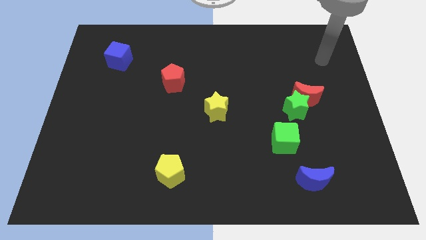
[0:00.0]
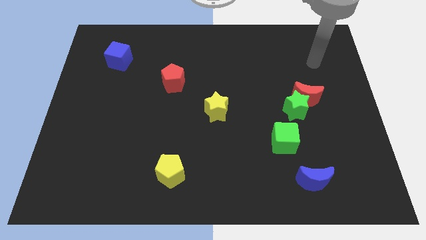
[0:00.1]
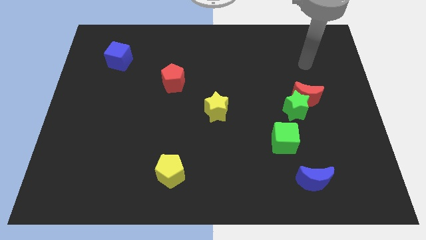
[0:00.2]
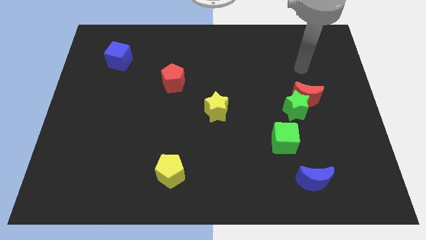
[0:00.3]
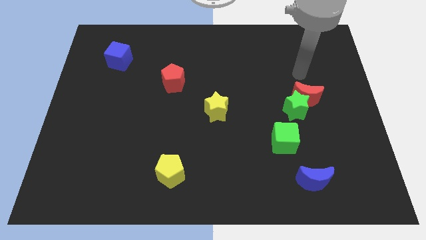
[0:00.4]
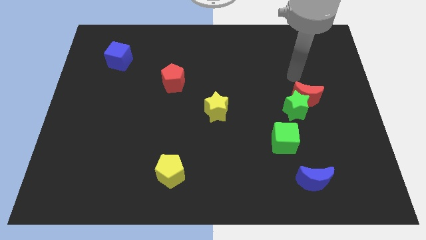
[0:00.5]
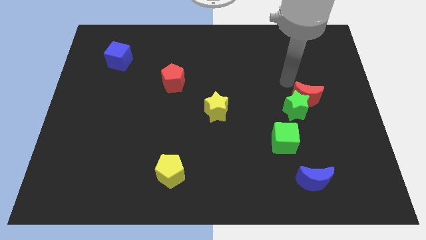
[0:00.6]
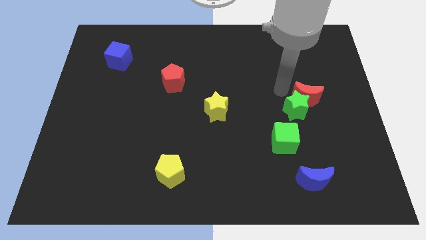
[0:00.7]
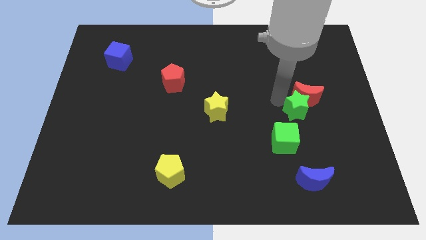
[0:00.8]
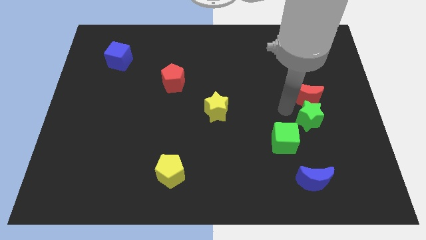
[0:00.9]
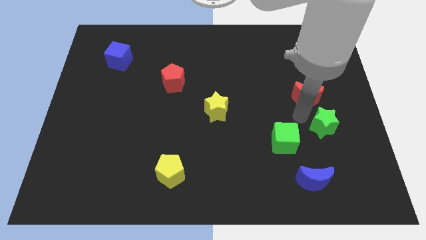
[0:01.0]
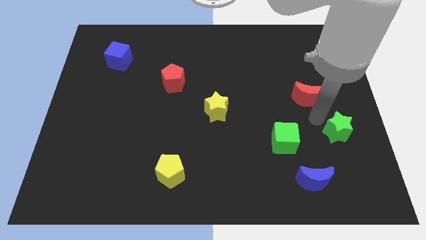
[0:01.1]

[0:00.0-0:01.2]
separate the red moon from the green star

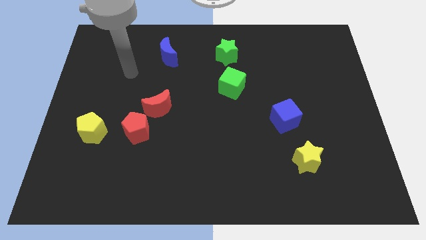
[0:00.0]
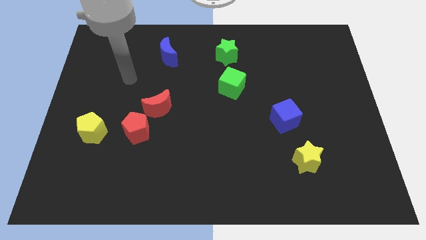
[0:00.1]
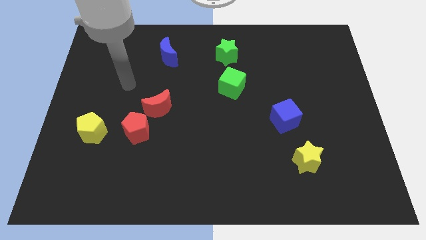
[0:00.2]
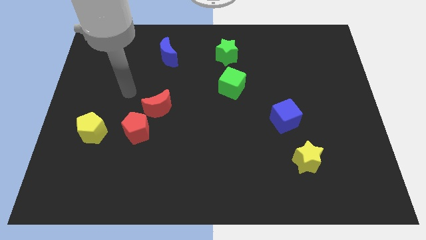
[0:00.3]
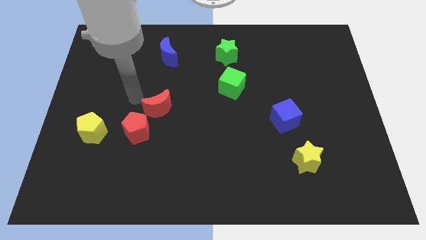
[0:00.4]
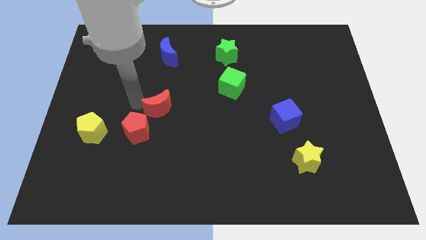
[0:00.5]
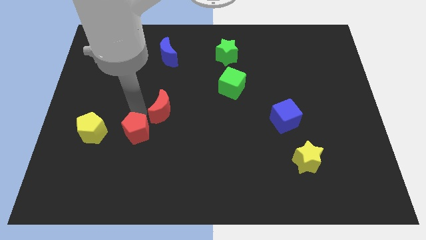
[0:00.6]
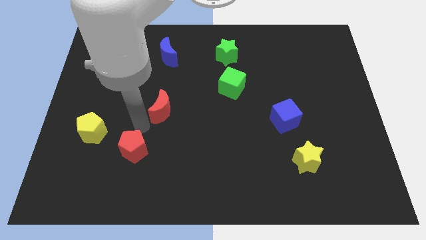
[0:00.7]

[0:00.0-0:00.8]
separate the red moon from the red pentagon

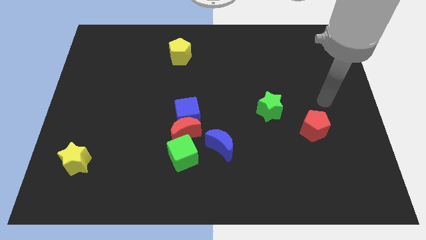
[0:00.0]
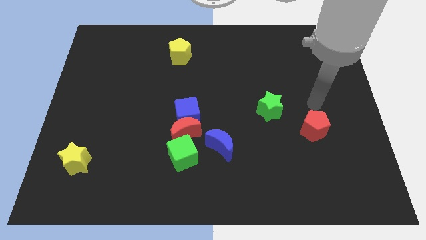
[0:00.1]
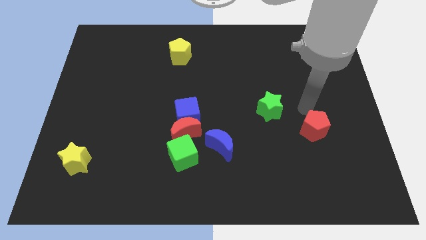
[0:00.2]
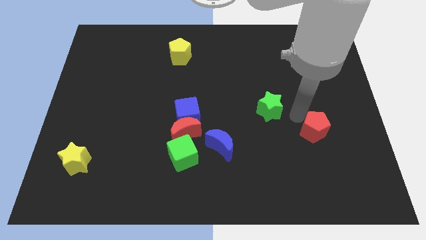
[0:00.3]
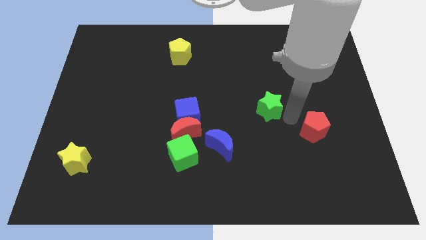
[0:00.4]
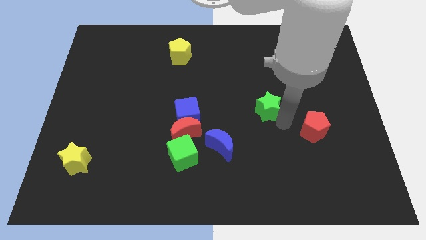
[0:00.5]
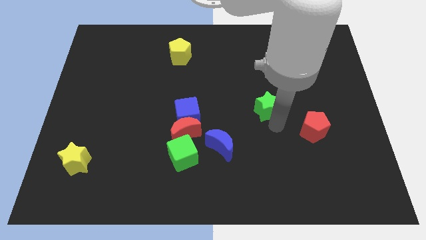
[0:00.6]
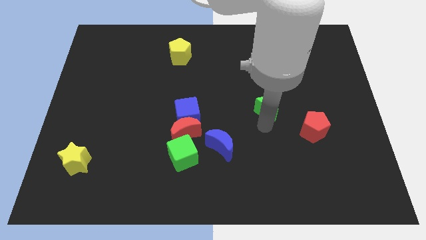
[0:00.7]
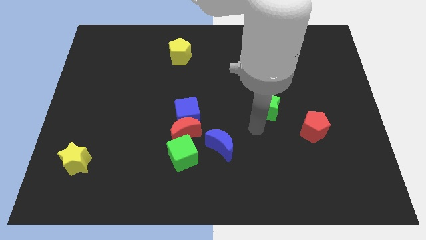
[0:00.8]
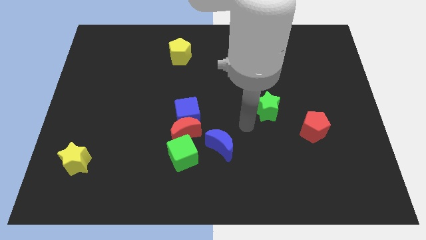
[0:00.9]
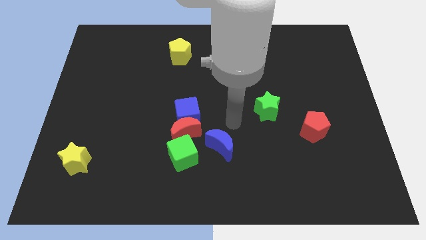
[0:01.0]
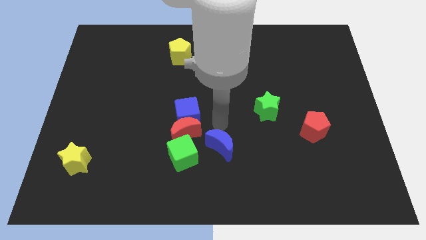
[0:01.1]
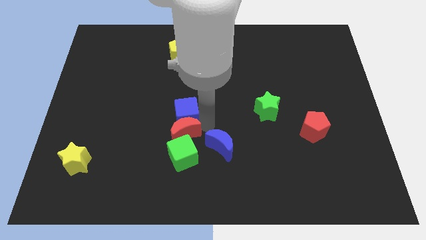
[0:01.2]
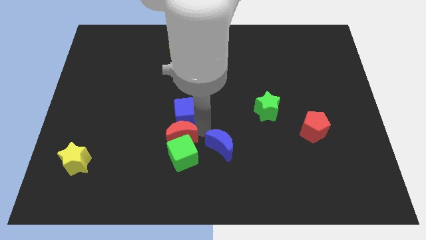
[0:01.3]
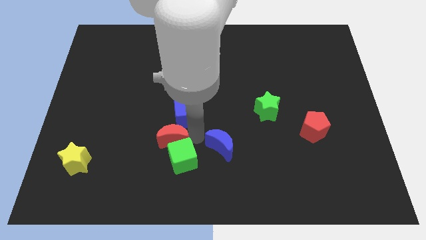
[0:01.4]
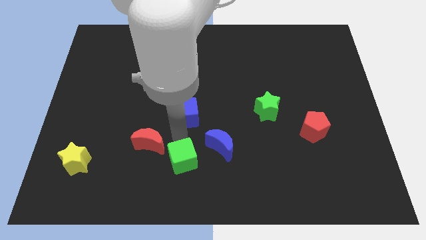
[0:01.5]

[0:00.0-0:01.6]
pull the blue cube apart from the red moon

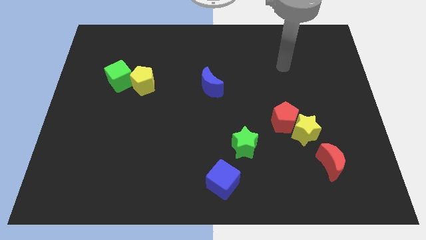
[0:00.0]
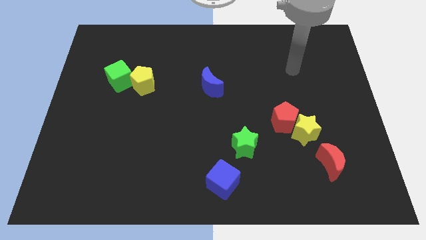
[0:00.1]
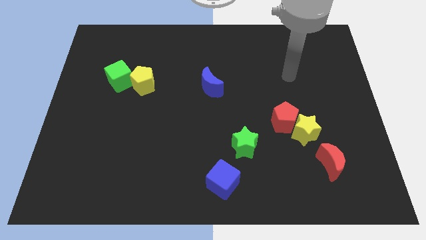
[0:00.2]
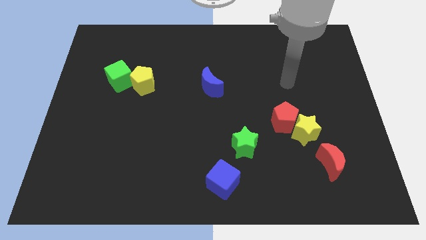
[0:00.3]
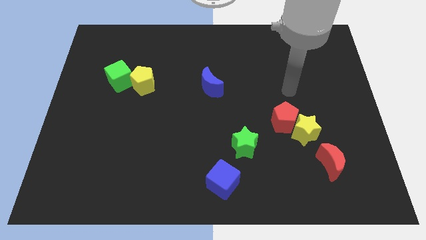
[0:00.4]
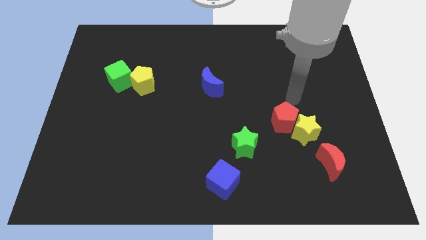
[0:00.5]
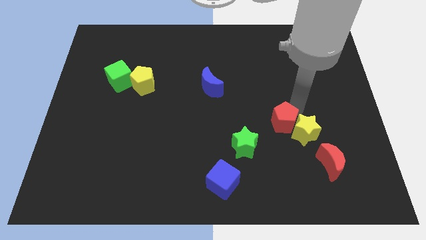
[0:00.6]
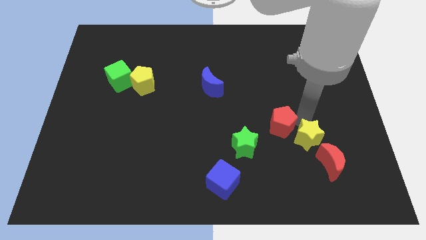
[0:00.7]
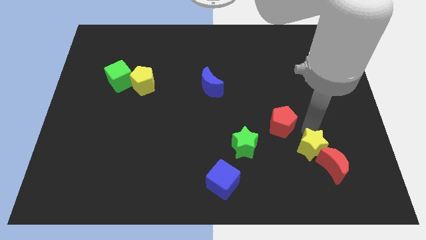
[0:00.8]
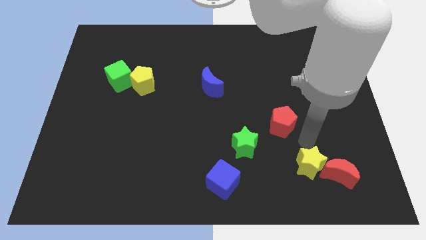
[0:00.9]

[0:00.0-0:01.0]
separate the red pentagon from the yellow star

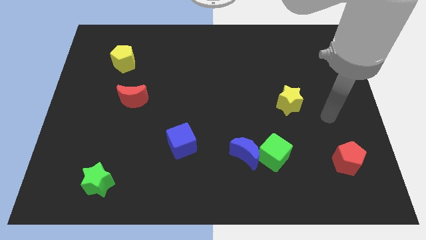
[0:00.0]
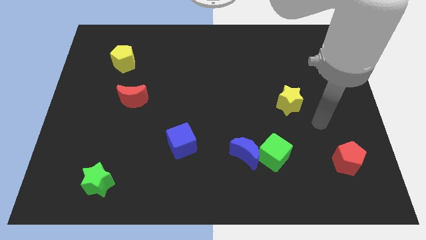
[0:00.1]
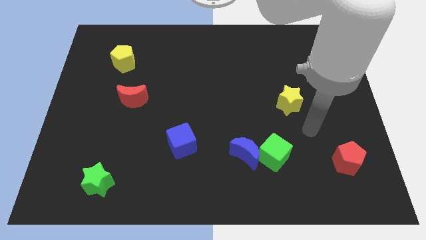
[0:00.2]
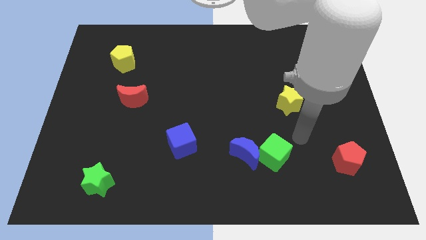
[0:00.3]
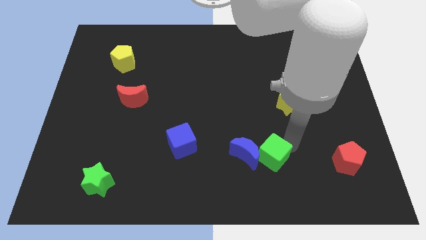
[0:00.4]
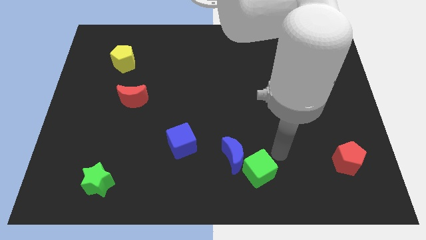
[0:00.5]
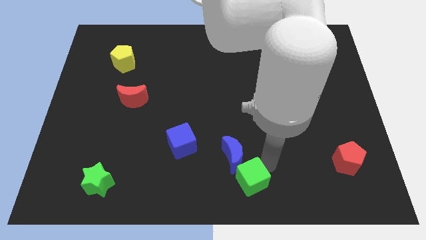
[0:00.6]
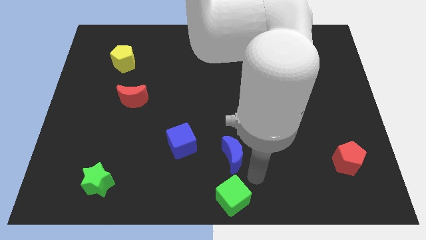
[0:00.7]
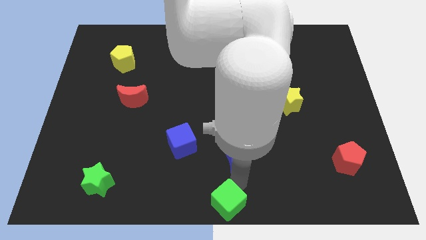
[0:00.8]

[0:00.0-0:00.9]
move the blue moon away from the green cube

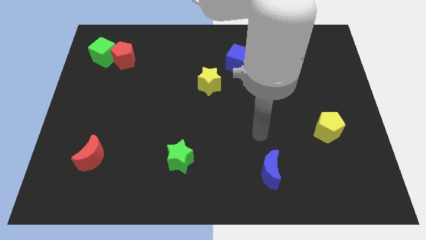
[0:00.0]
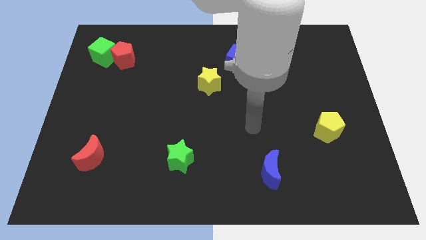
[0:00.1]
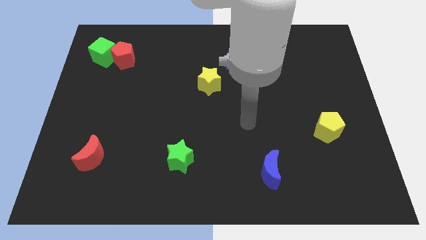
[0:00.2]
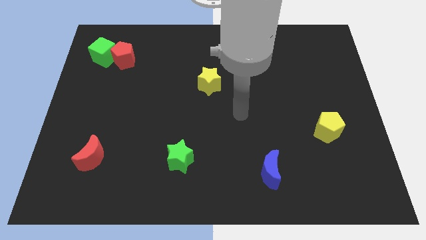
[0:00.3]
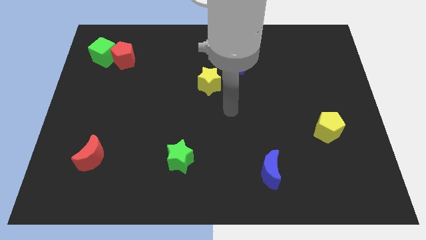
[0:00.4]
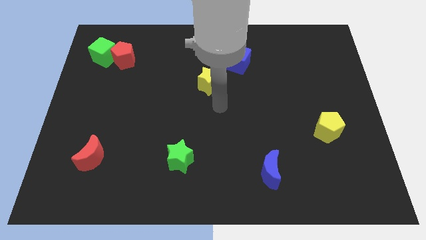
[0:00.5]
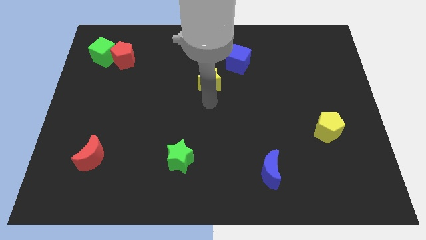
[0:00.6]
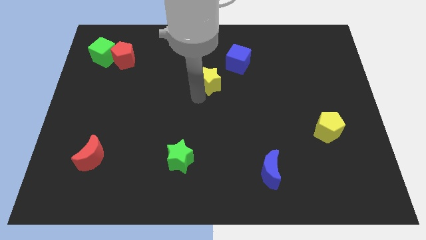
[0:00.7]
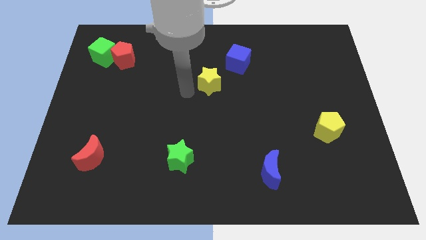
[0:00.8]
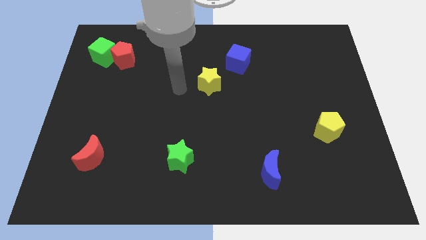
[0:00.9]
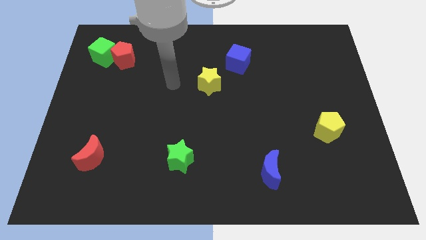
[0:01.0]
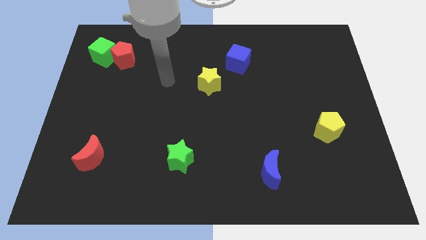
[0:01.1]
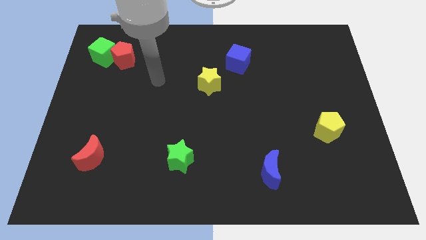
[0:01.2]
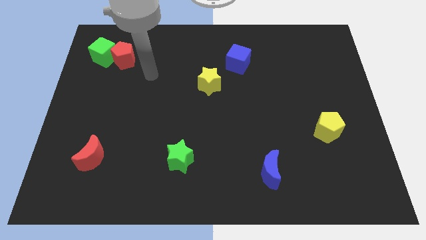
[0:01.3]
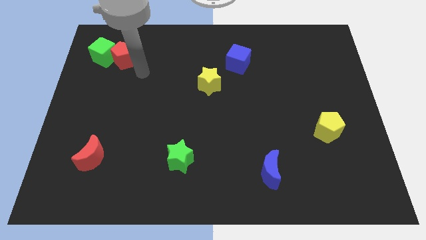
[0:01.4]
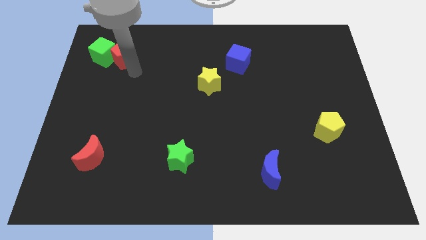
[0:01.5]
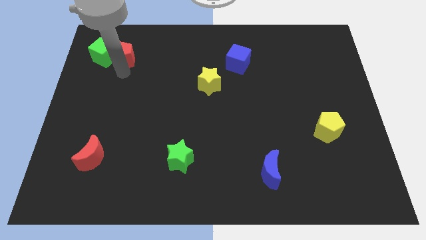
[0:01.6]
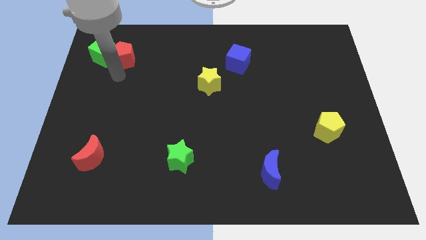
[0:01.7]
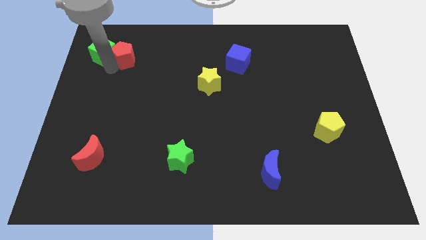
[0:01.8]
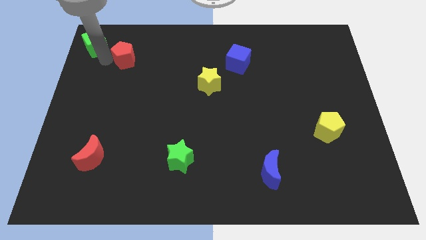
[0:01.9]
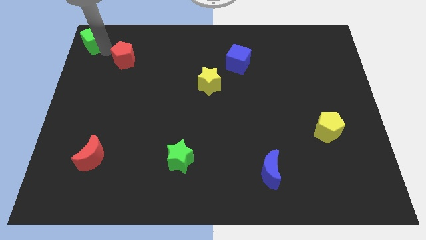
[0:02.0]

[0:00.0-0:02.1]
separate the red pentagon from the green cube

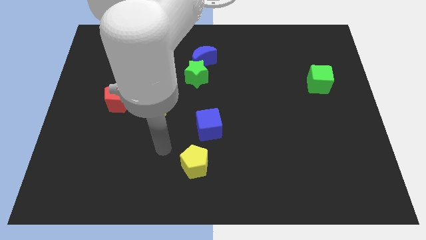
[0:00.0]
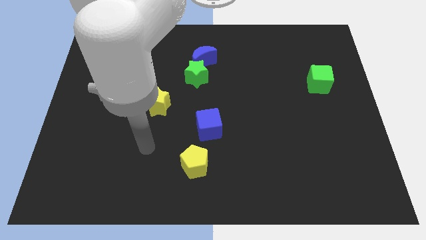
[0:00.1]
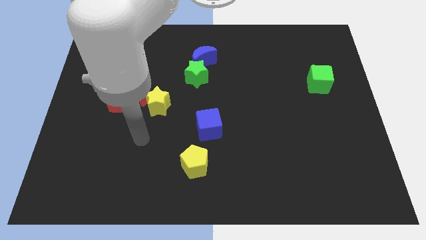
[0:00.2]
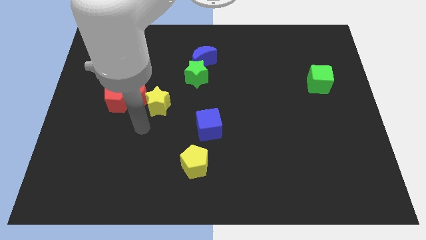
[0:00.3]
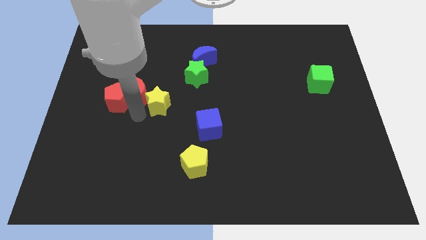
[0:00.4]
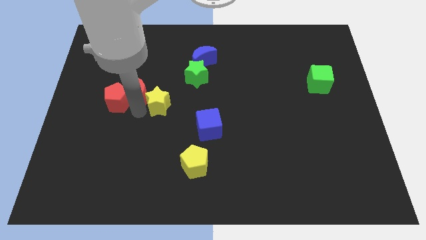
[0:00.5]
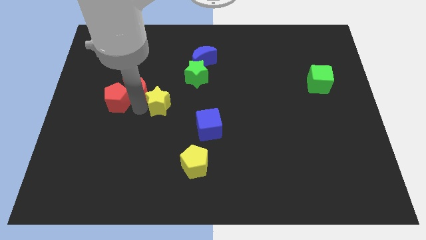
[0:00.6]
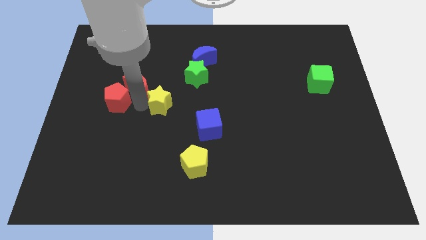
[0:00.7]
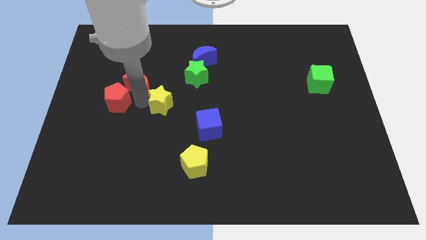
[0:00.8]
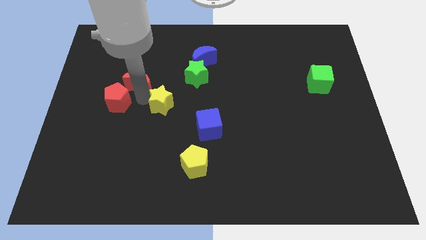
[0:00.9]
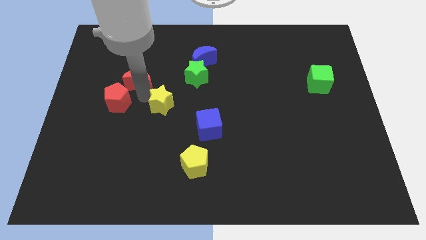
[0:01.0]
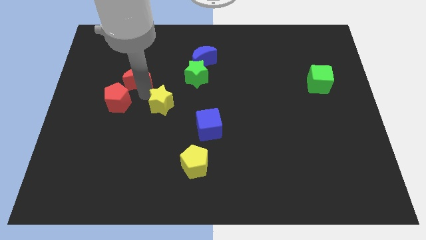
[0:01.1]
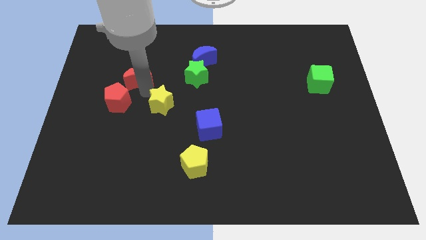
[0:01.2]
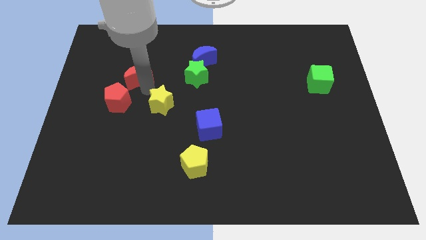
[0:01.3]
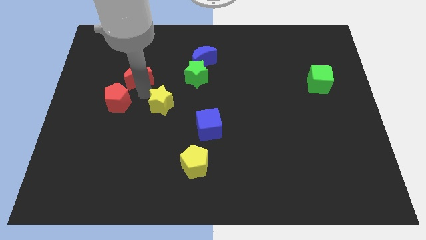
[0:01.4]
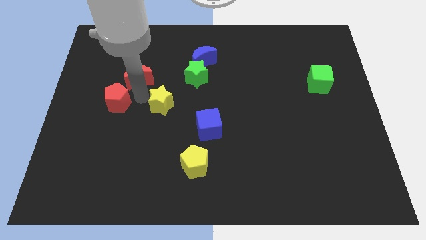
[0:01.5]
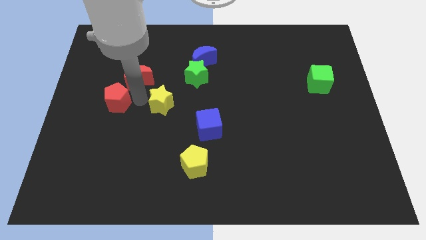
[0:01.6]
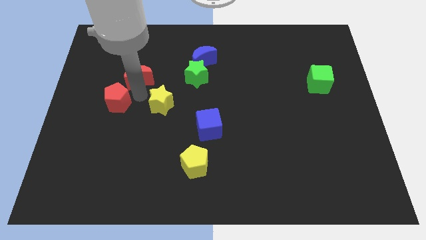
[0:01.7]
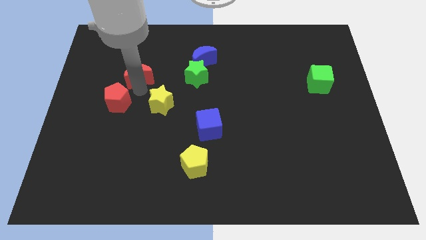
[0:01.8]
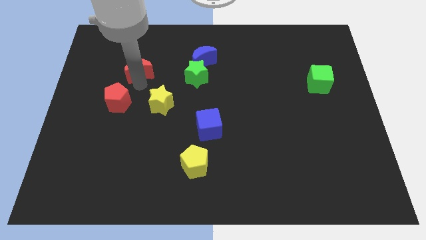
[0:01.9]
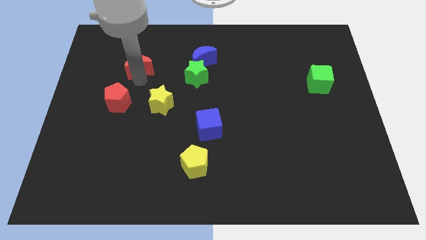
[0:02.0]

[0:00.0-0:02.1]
separate the red moon from the red pentagon and yellow star
